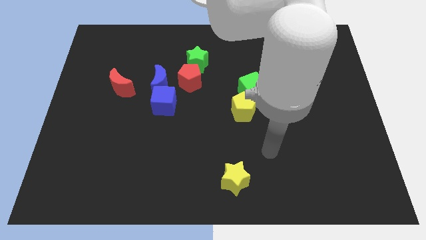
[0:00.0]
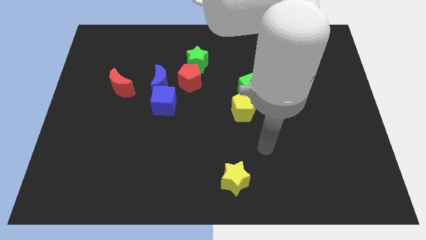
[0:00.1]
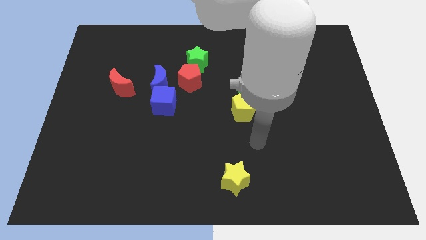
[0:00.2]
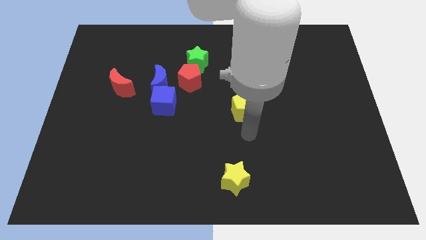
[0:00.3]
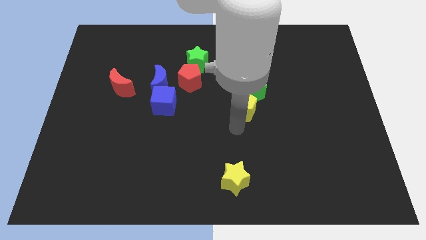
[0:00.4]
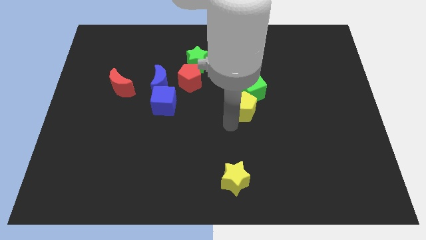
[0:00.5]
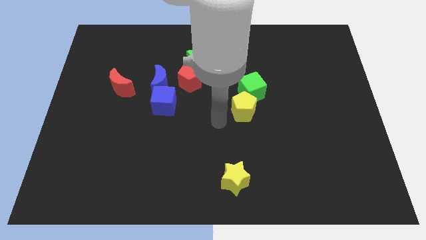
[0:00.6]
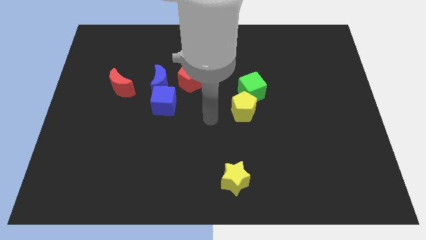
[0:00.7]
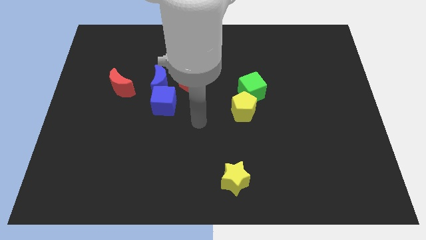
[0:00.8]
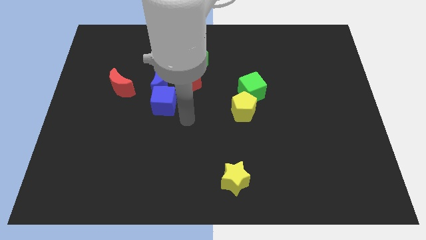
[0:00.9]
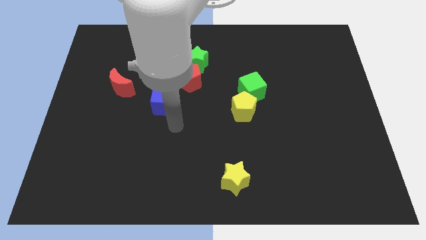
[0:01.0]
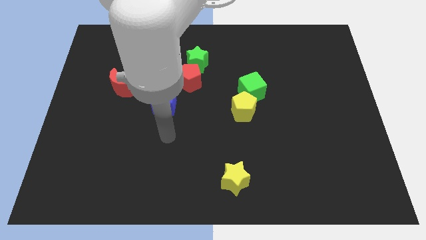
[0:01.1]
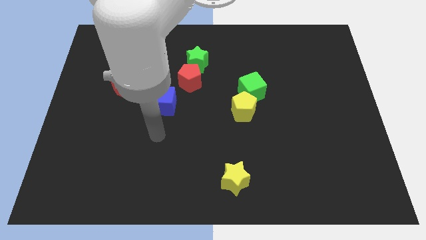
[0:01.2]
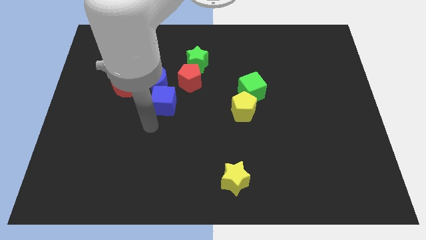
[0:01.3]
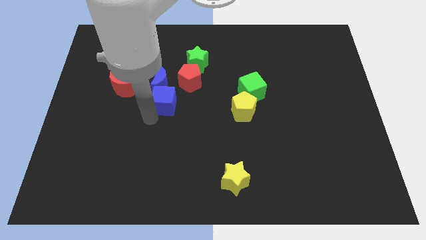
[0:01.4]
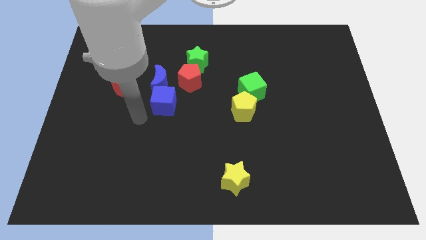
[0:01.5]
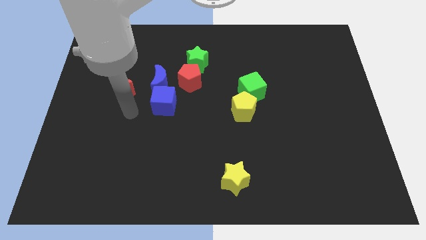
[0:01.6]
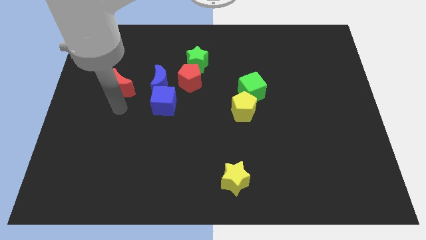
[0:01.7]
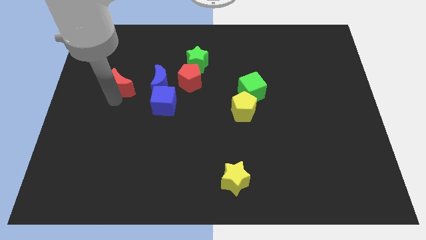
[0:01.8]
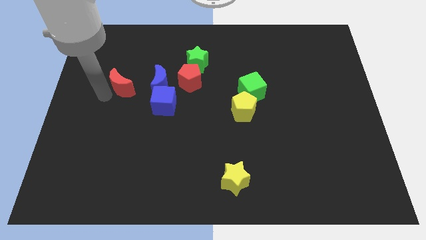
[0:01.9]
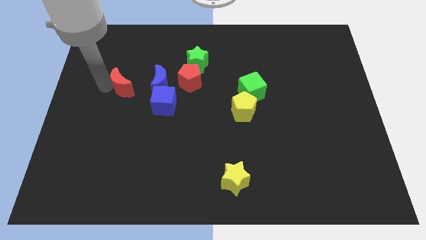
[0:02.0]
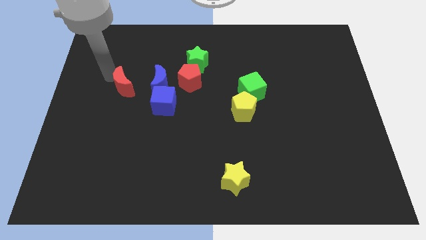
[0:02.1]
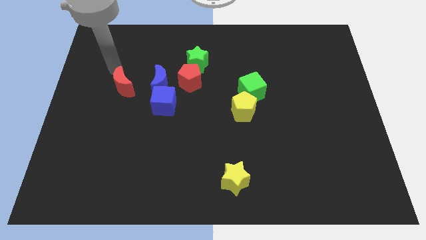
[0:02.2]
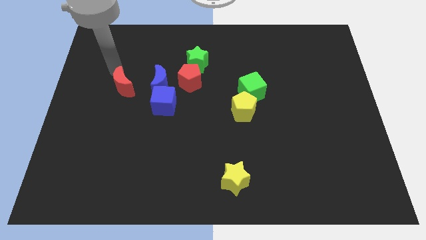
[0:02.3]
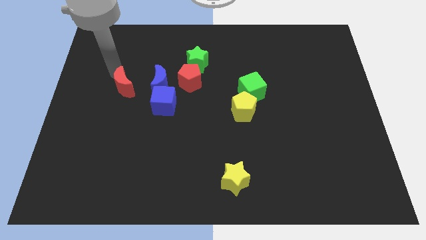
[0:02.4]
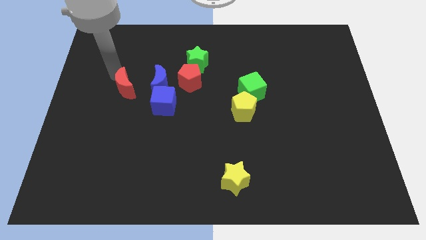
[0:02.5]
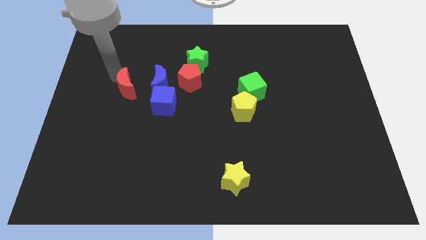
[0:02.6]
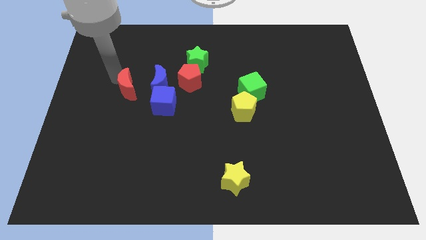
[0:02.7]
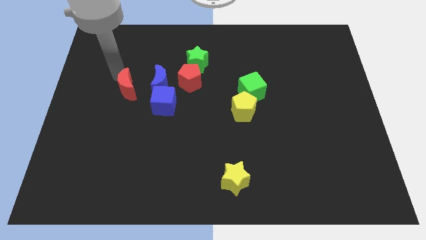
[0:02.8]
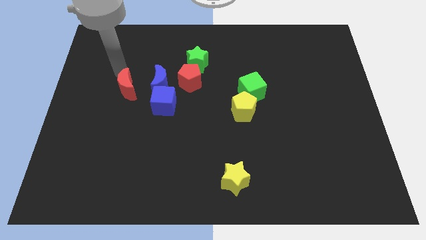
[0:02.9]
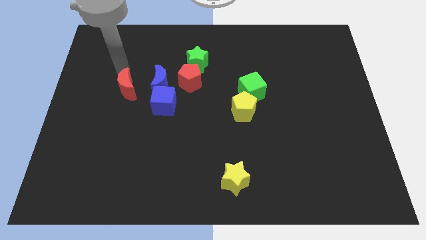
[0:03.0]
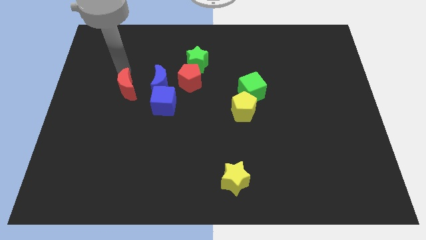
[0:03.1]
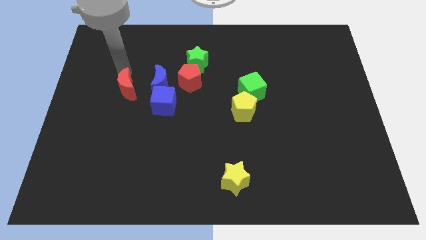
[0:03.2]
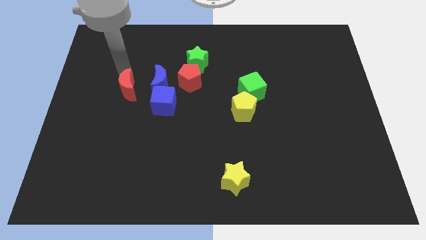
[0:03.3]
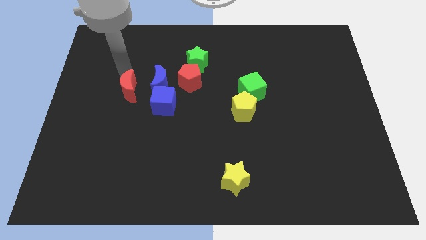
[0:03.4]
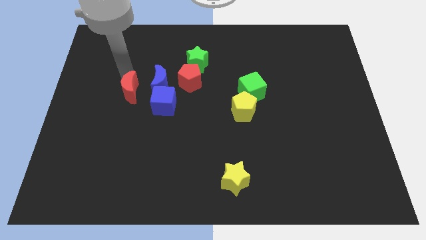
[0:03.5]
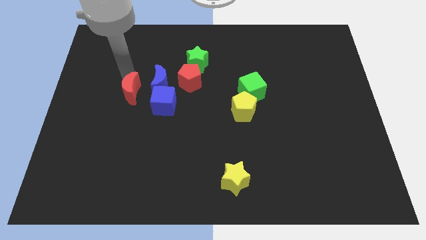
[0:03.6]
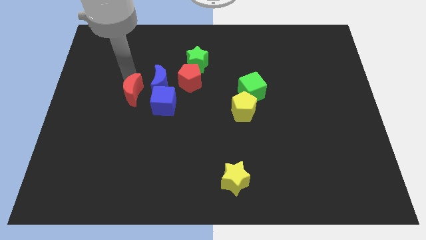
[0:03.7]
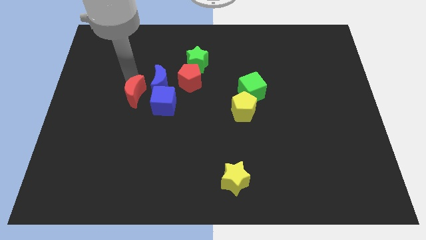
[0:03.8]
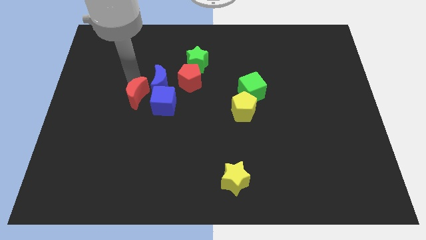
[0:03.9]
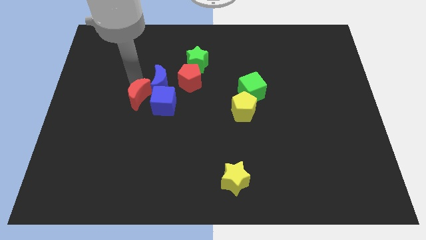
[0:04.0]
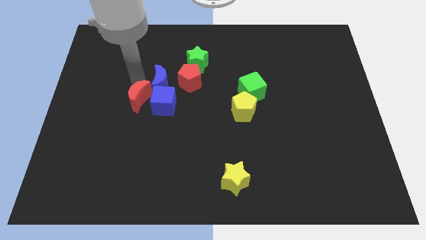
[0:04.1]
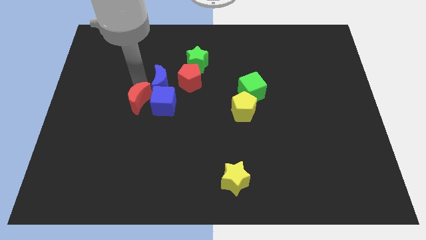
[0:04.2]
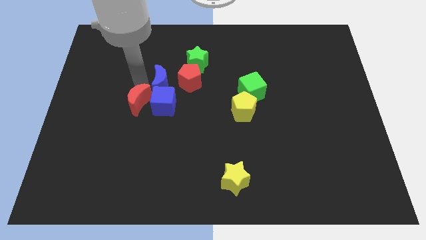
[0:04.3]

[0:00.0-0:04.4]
move the red moon somewhat down and right

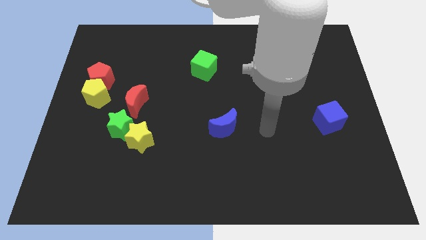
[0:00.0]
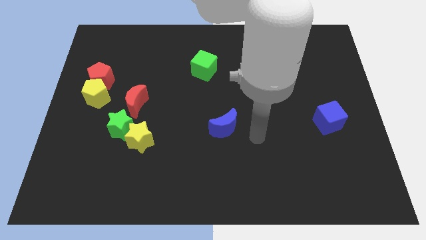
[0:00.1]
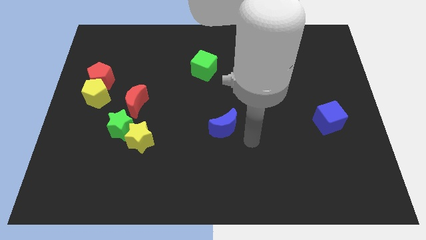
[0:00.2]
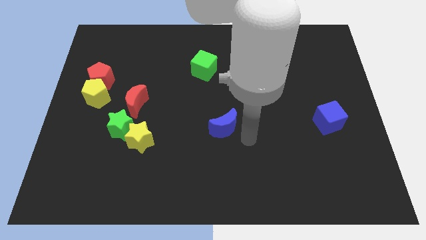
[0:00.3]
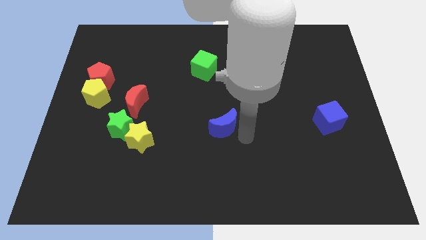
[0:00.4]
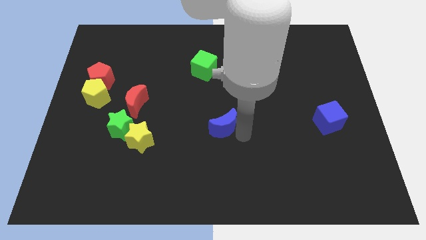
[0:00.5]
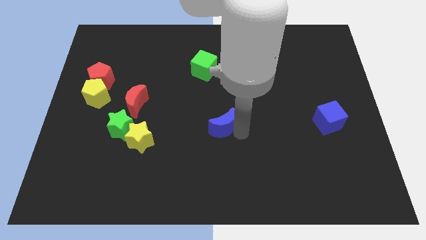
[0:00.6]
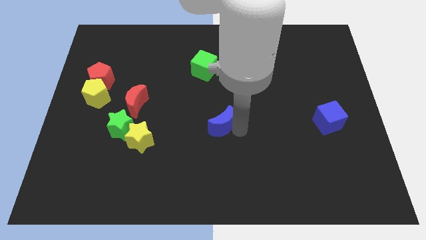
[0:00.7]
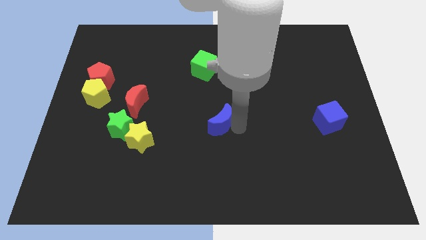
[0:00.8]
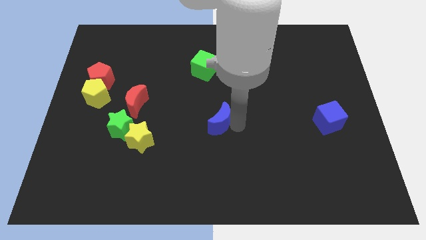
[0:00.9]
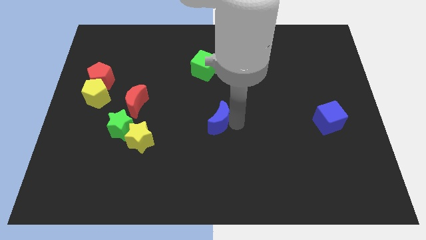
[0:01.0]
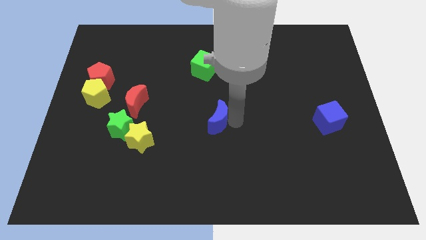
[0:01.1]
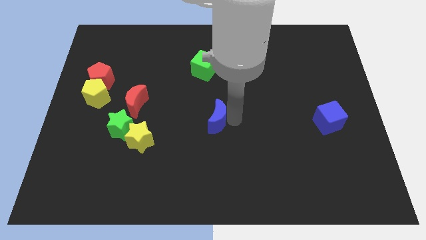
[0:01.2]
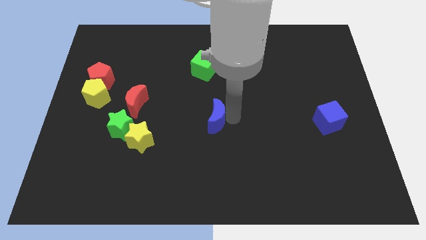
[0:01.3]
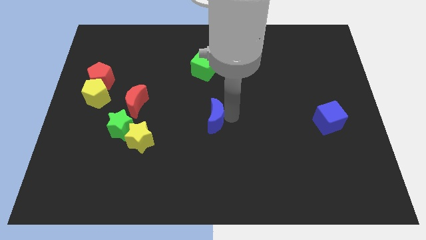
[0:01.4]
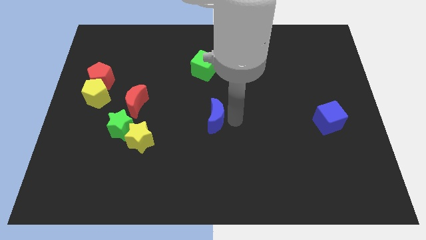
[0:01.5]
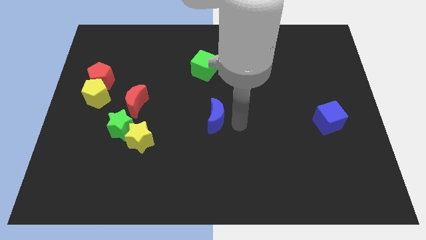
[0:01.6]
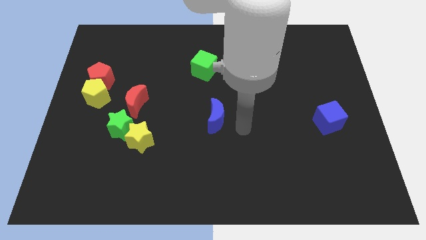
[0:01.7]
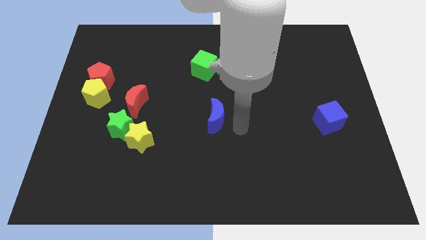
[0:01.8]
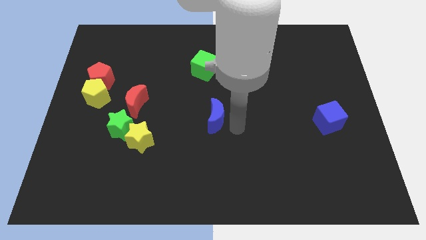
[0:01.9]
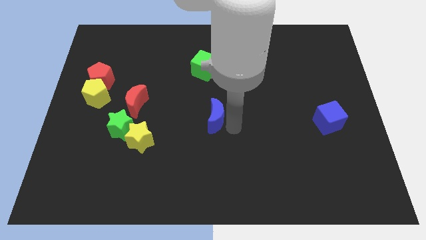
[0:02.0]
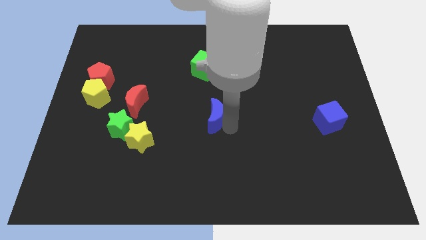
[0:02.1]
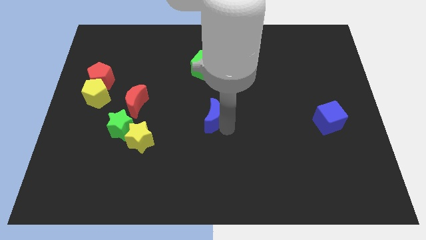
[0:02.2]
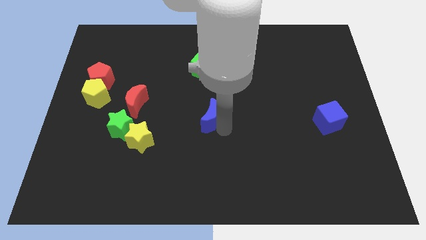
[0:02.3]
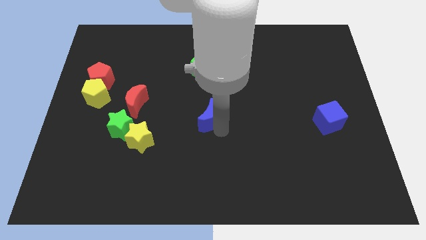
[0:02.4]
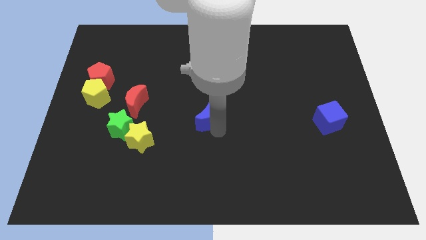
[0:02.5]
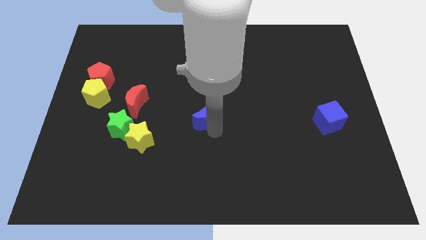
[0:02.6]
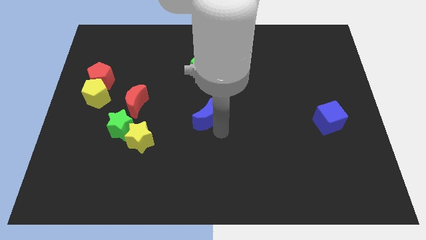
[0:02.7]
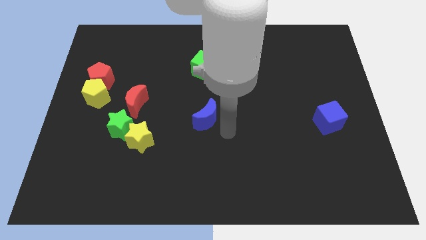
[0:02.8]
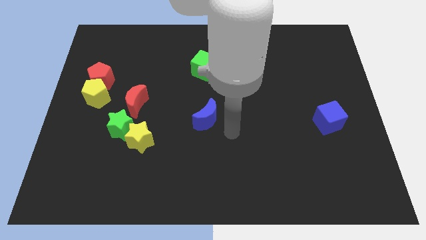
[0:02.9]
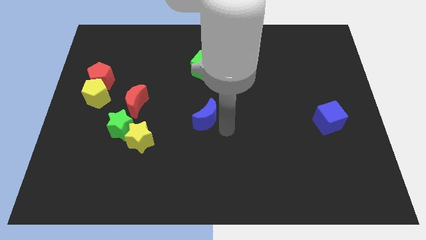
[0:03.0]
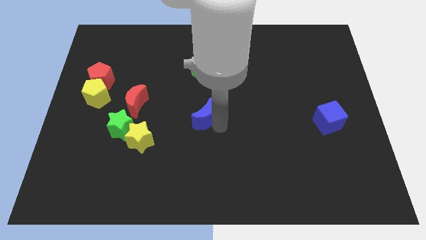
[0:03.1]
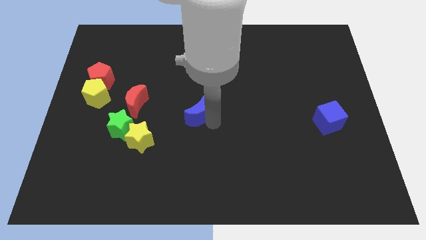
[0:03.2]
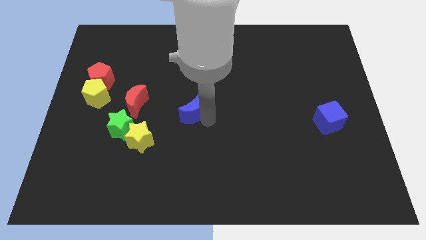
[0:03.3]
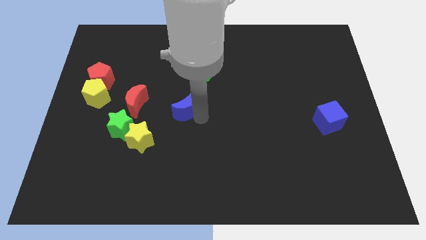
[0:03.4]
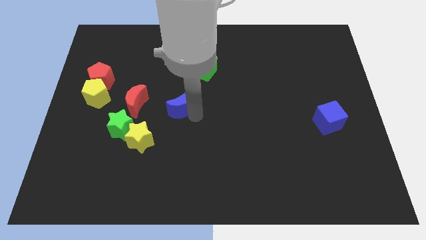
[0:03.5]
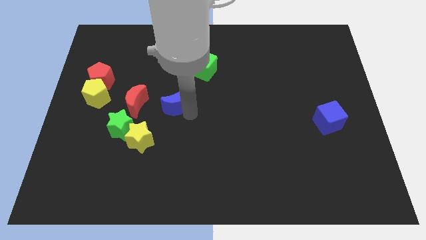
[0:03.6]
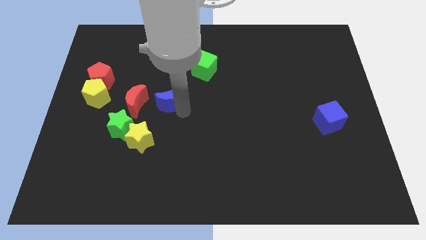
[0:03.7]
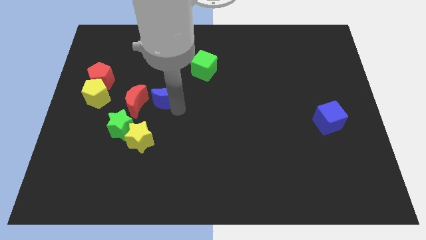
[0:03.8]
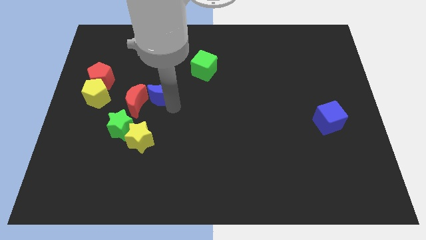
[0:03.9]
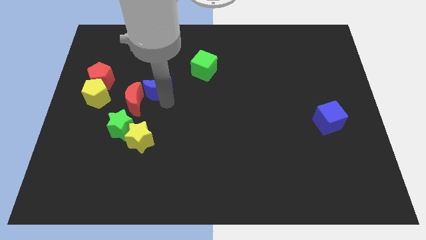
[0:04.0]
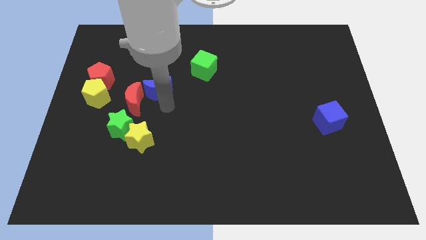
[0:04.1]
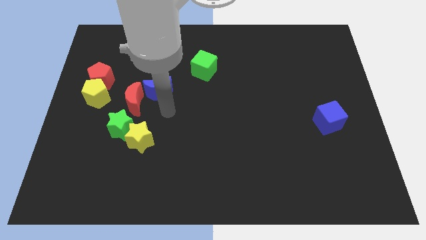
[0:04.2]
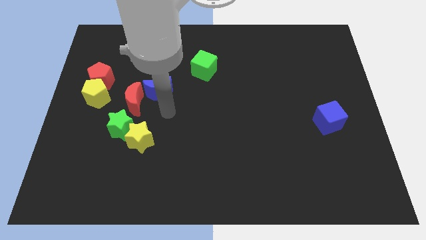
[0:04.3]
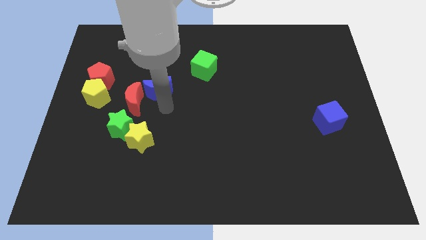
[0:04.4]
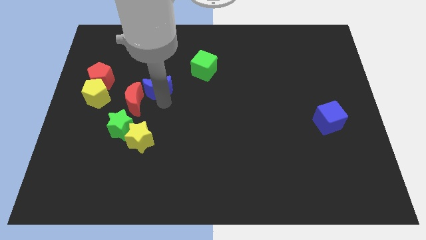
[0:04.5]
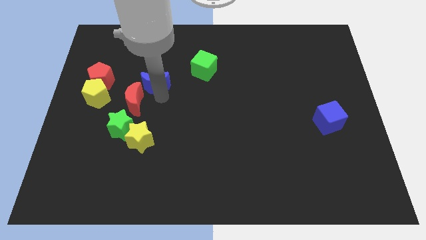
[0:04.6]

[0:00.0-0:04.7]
push the blue moon upwards and left
